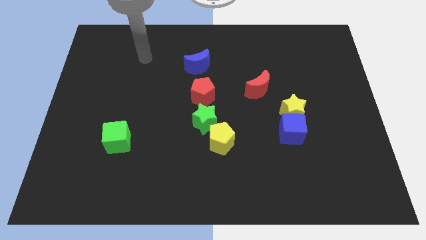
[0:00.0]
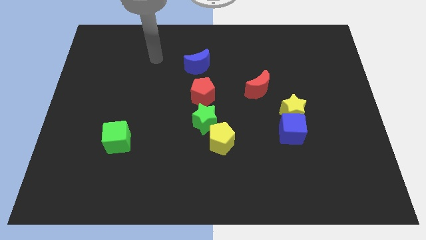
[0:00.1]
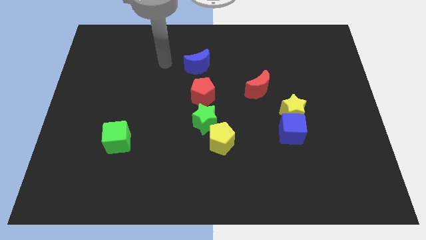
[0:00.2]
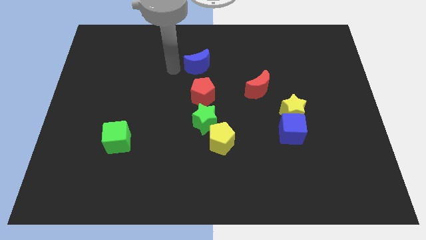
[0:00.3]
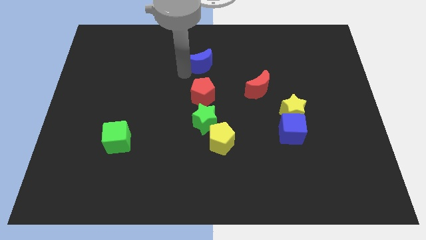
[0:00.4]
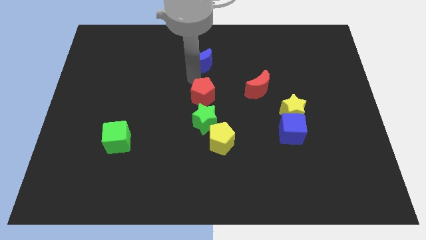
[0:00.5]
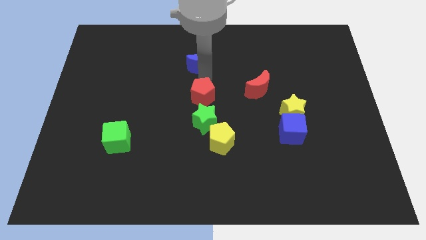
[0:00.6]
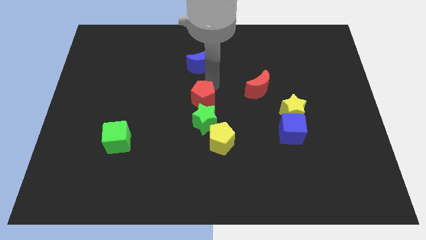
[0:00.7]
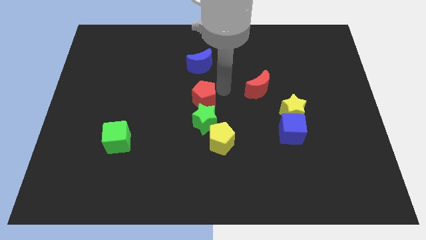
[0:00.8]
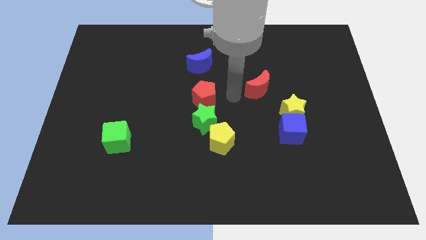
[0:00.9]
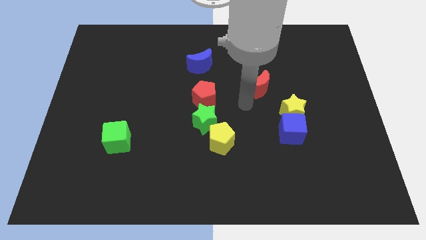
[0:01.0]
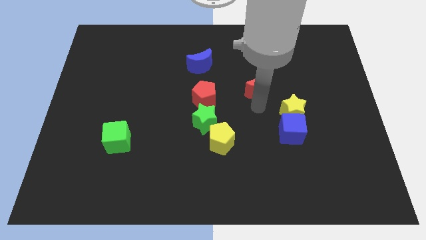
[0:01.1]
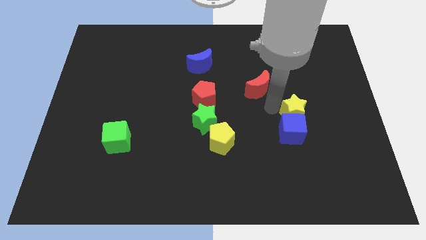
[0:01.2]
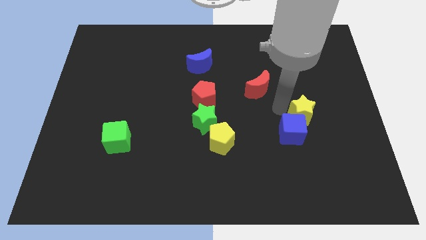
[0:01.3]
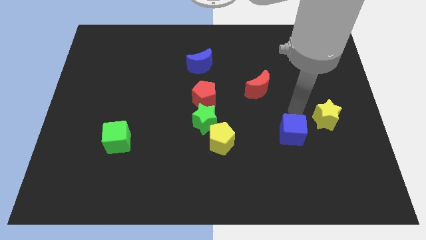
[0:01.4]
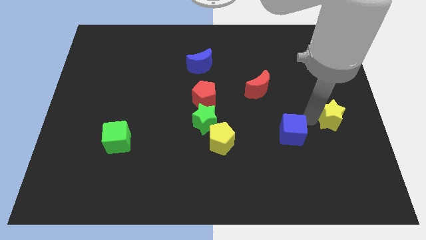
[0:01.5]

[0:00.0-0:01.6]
move the blue cube away from the yellow star

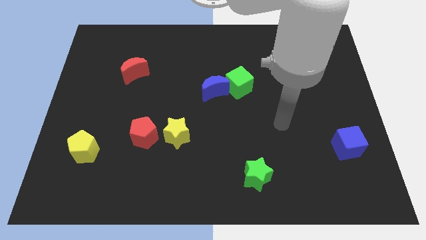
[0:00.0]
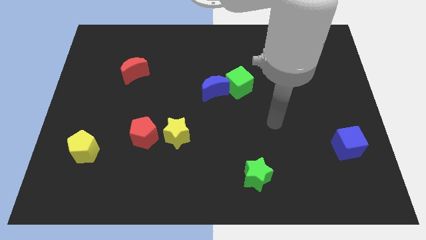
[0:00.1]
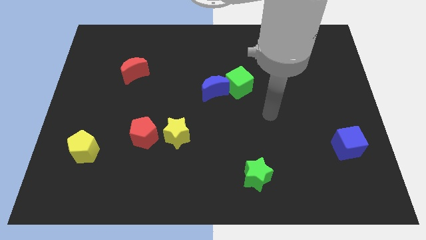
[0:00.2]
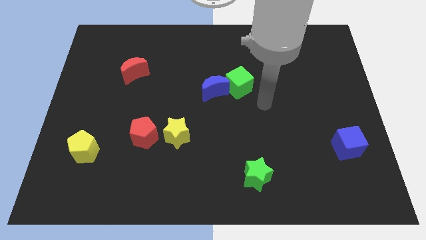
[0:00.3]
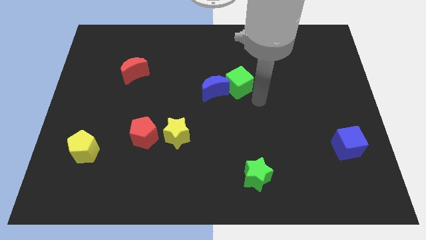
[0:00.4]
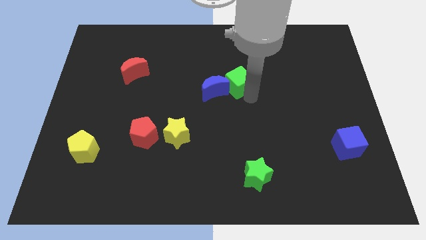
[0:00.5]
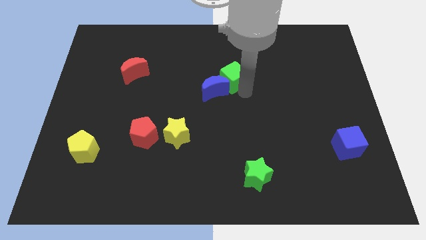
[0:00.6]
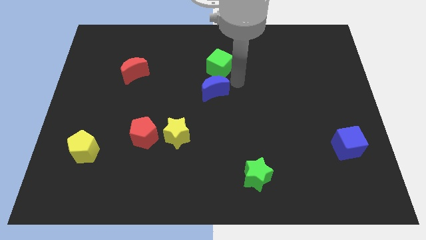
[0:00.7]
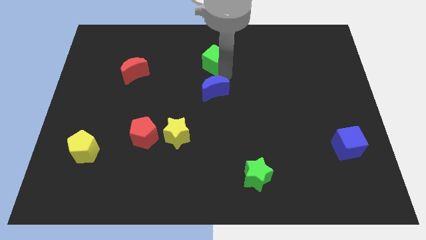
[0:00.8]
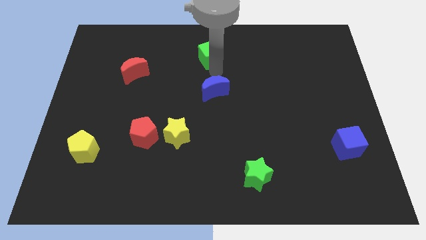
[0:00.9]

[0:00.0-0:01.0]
separate the blue moon from the green cube

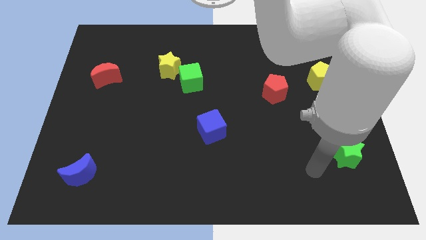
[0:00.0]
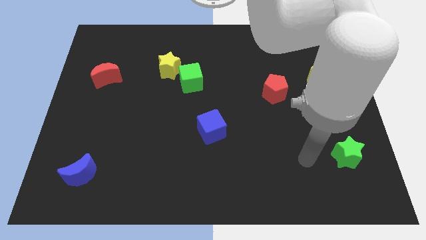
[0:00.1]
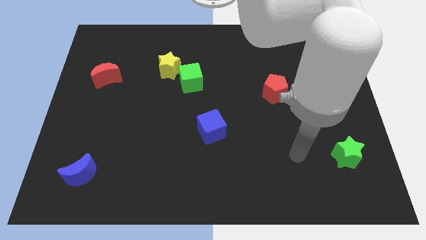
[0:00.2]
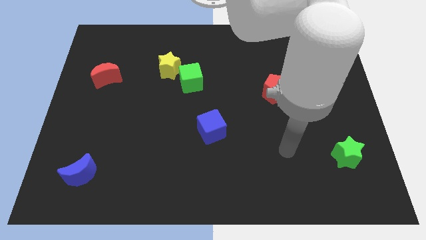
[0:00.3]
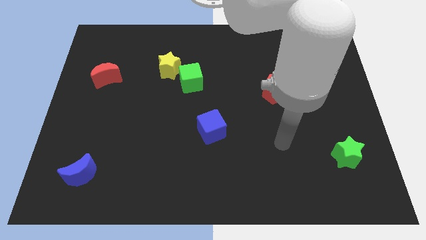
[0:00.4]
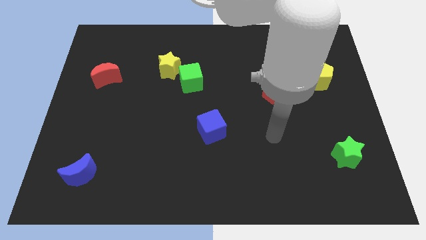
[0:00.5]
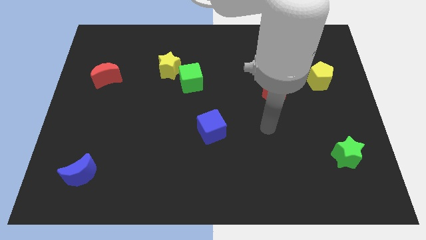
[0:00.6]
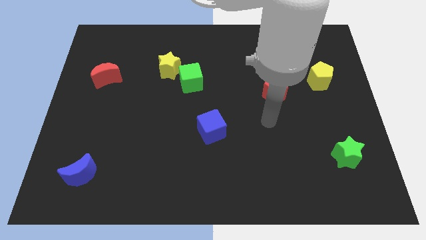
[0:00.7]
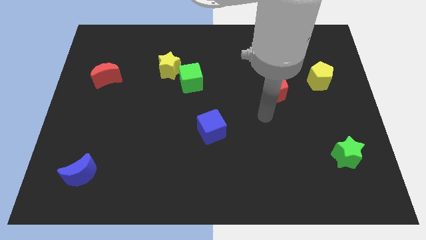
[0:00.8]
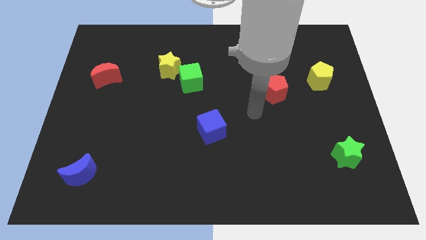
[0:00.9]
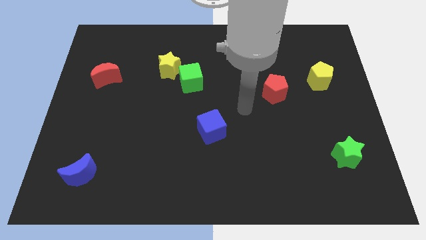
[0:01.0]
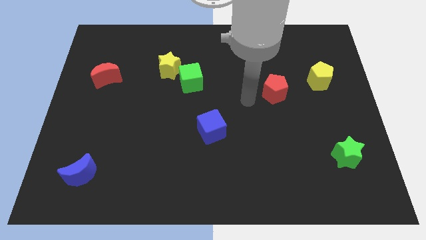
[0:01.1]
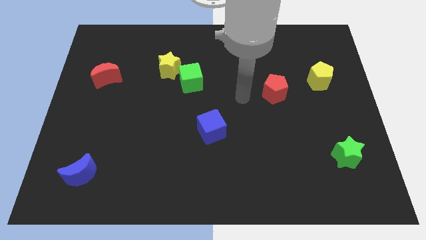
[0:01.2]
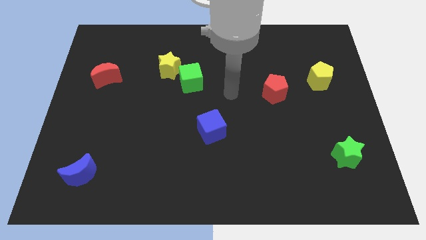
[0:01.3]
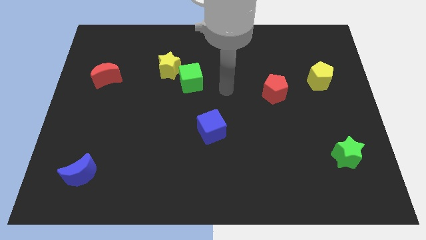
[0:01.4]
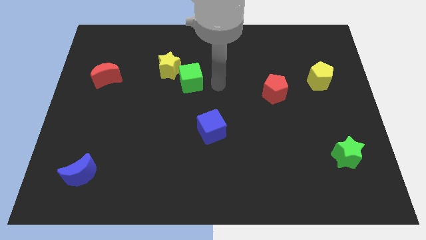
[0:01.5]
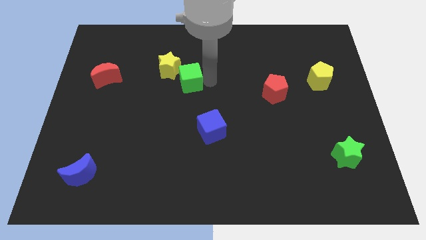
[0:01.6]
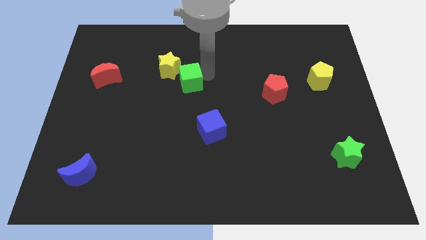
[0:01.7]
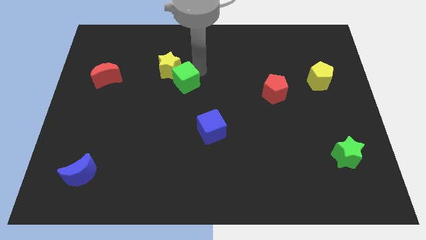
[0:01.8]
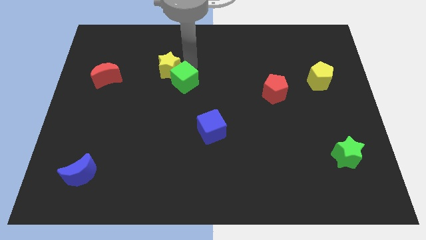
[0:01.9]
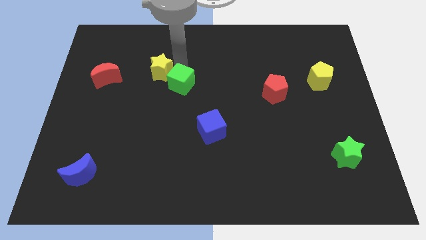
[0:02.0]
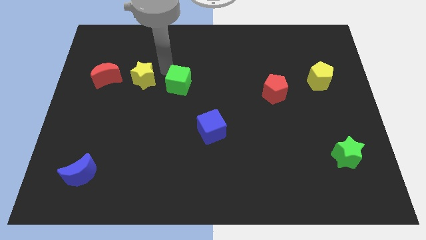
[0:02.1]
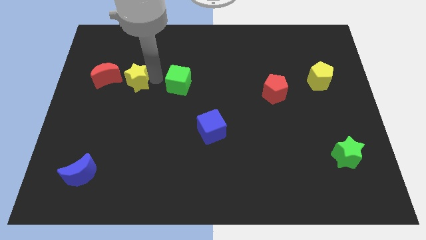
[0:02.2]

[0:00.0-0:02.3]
separate the green cube from the yellow star

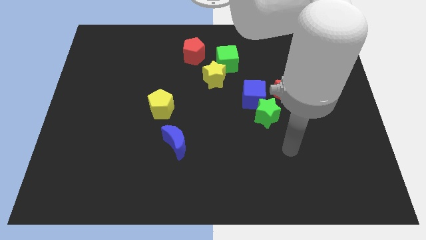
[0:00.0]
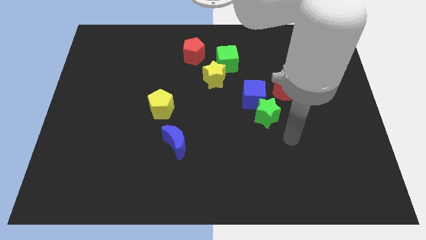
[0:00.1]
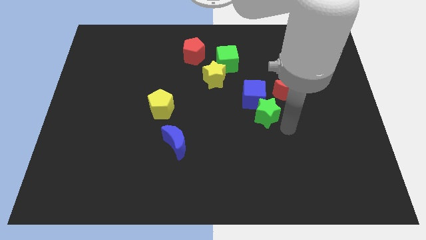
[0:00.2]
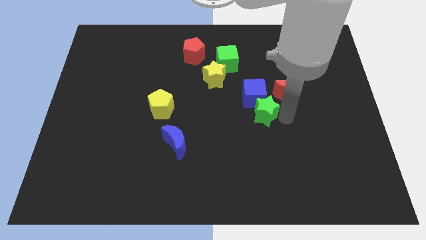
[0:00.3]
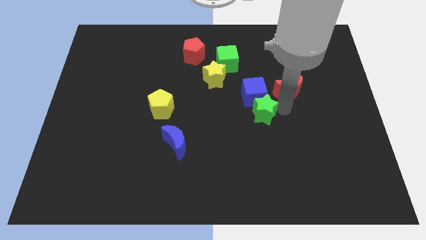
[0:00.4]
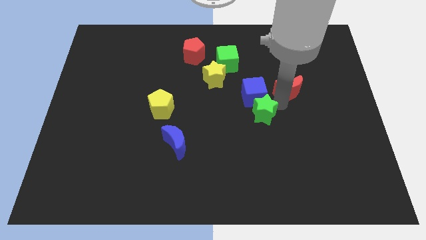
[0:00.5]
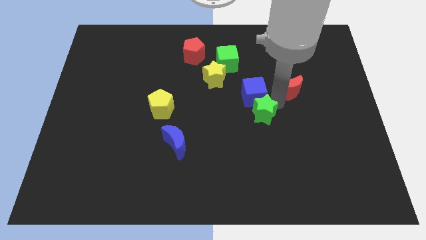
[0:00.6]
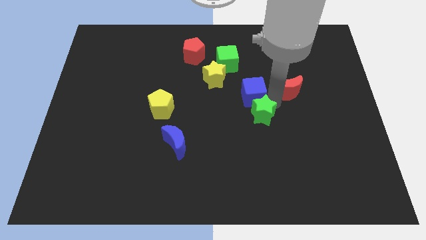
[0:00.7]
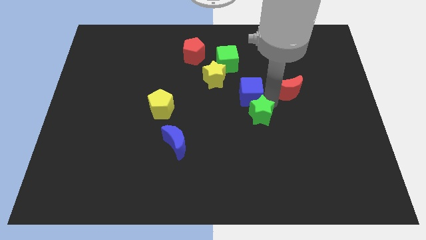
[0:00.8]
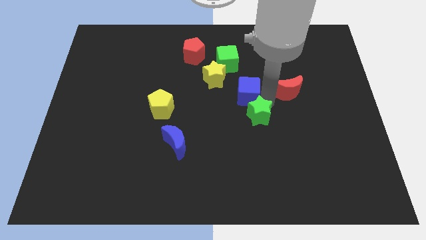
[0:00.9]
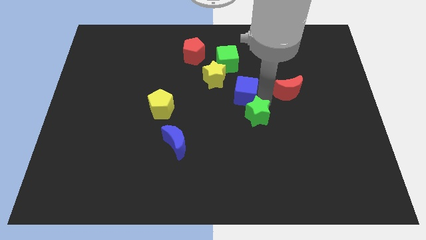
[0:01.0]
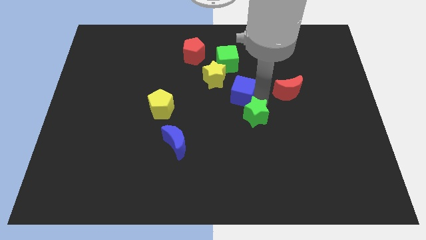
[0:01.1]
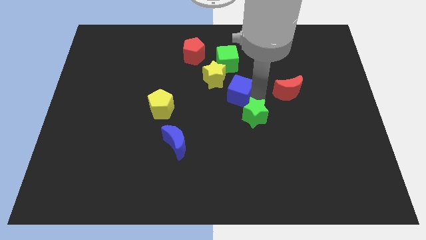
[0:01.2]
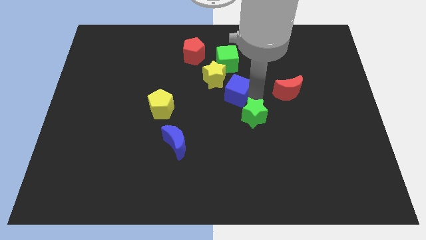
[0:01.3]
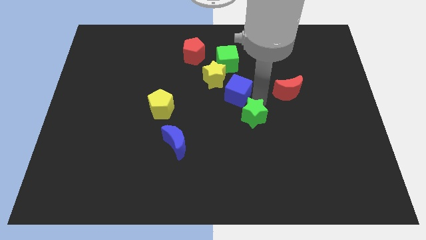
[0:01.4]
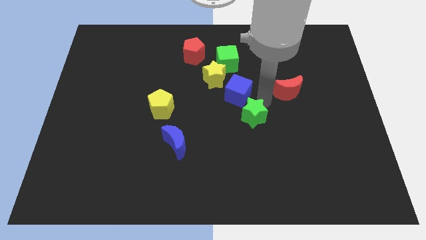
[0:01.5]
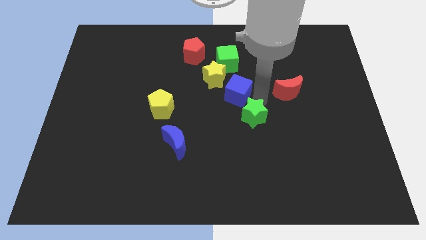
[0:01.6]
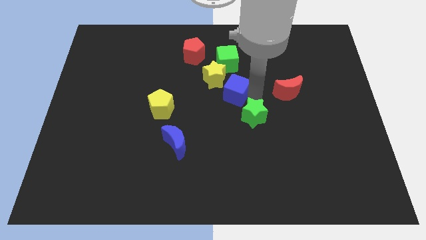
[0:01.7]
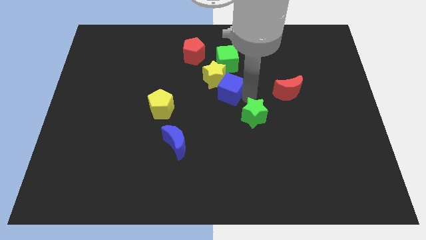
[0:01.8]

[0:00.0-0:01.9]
move the blue cube away from the green star and red moon

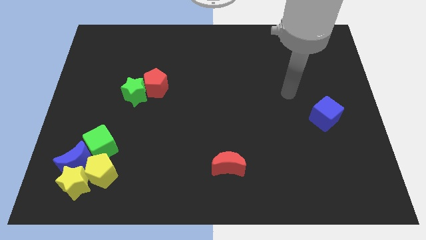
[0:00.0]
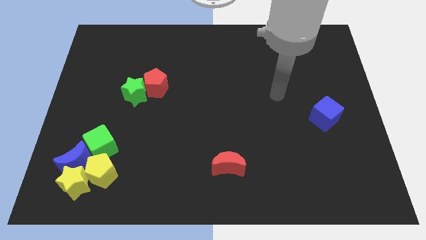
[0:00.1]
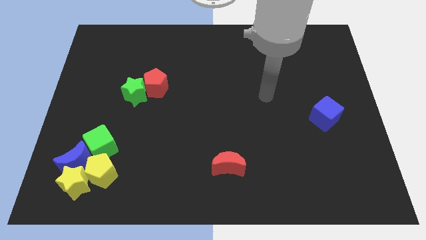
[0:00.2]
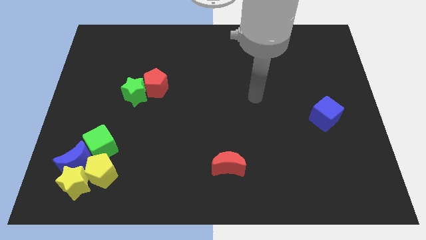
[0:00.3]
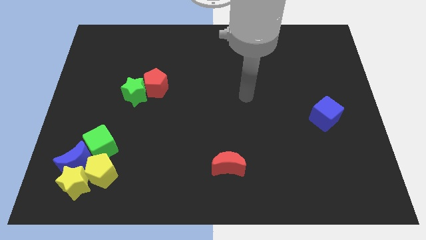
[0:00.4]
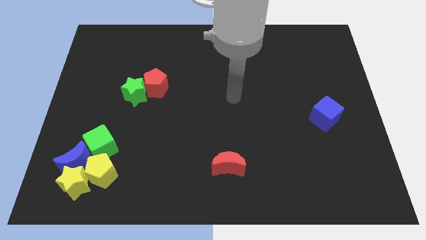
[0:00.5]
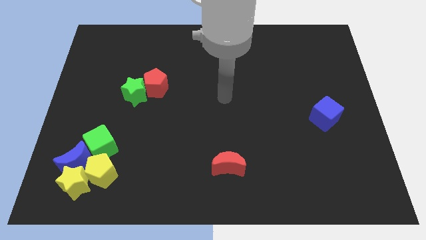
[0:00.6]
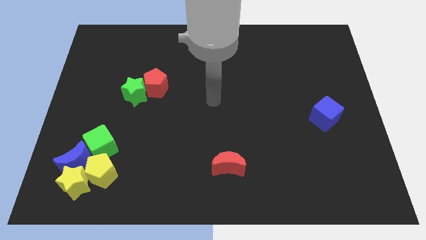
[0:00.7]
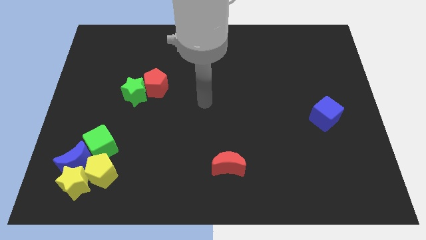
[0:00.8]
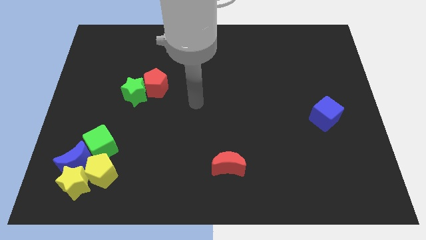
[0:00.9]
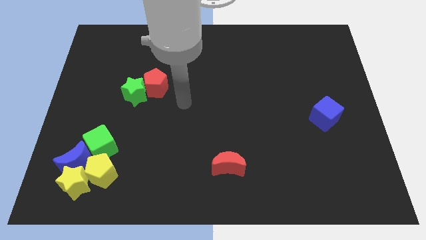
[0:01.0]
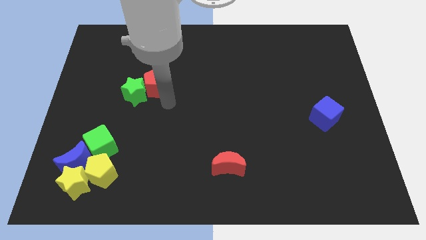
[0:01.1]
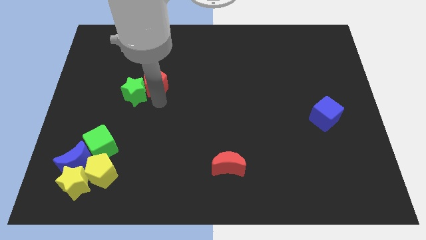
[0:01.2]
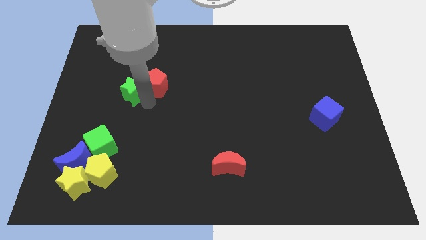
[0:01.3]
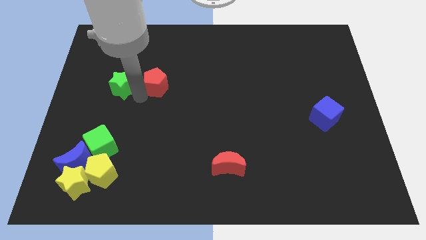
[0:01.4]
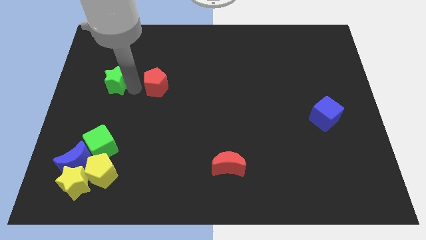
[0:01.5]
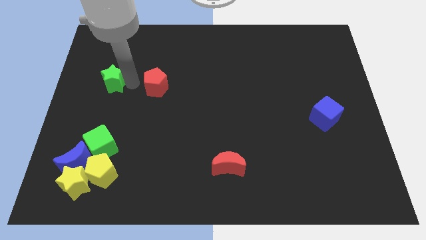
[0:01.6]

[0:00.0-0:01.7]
pull the red pentagon apart from the green star

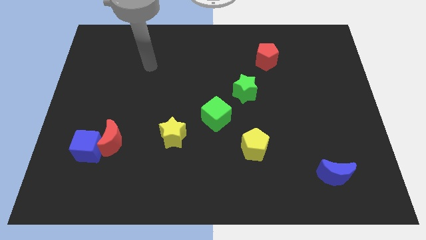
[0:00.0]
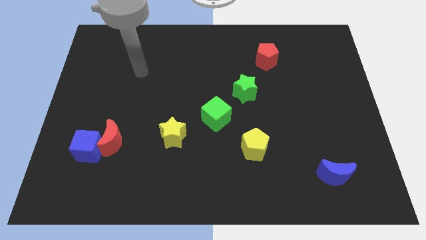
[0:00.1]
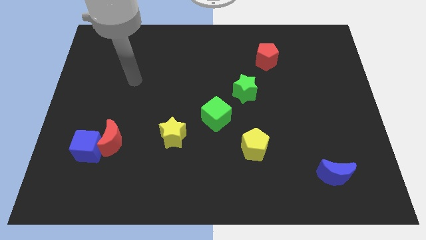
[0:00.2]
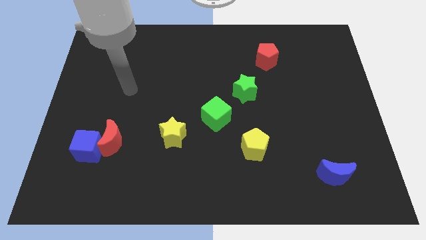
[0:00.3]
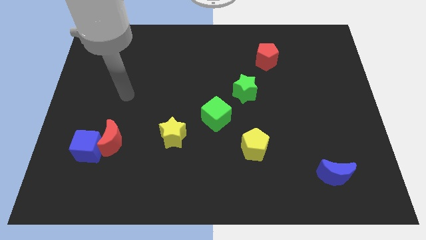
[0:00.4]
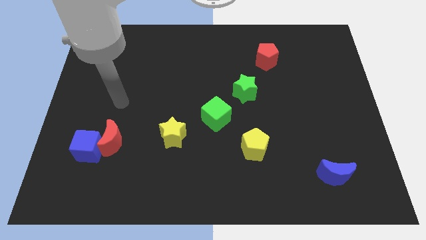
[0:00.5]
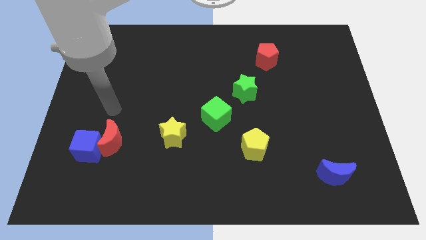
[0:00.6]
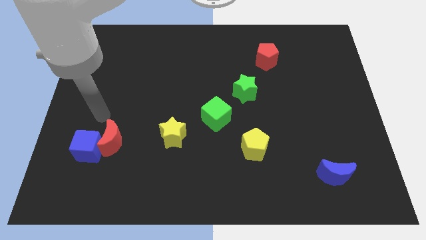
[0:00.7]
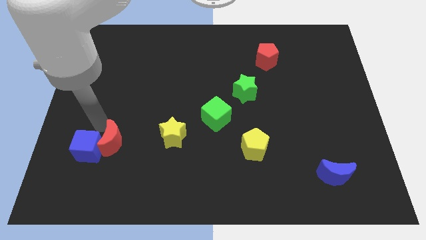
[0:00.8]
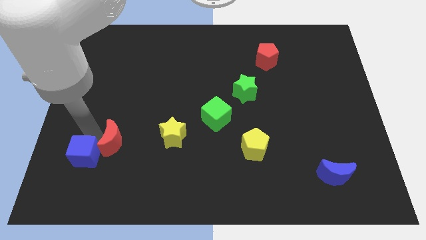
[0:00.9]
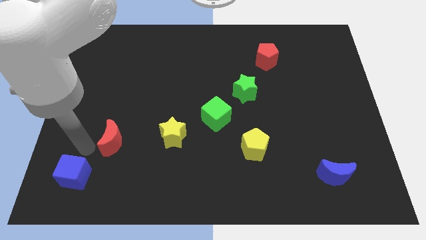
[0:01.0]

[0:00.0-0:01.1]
move the red moon away from the blue cube
